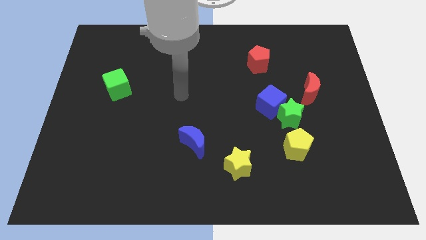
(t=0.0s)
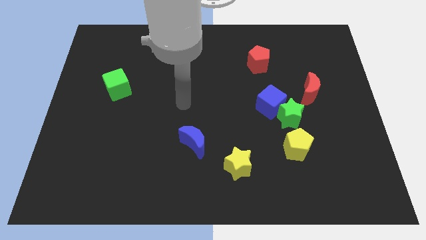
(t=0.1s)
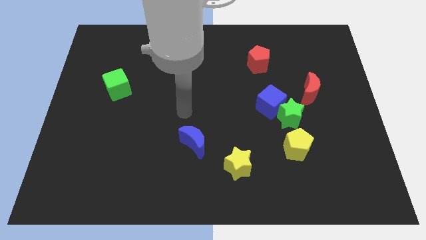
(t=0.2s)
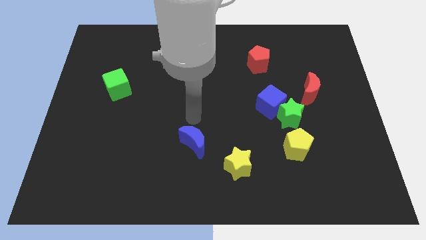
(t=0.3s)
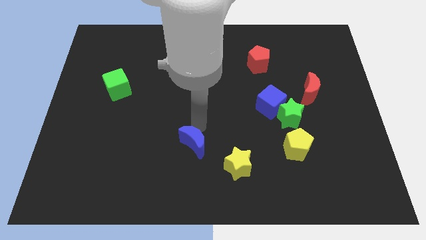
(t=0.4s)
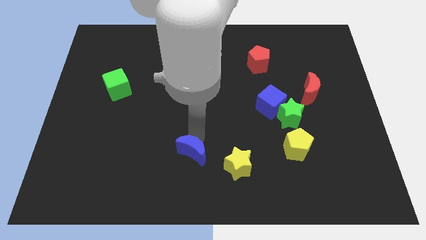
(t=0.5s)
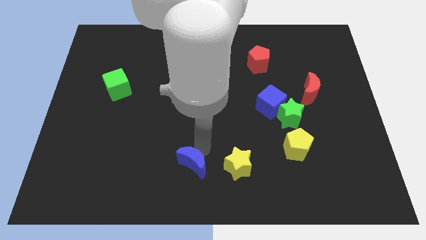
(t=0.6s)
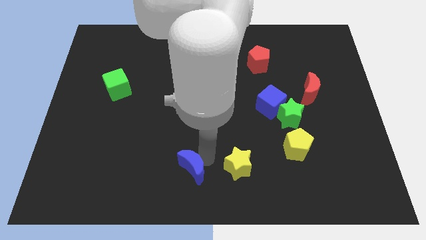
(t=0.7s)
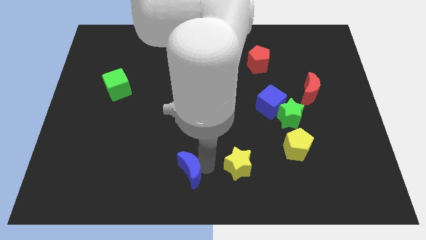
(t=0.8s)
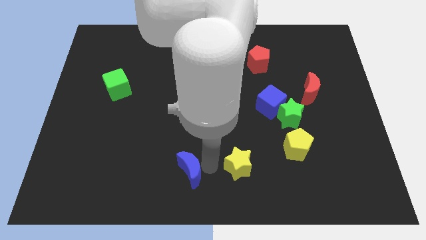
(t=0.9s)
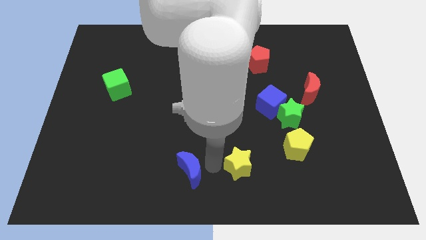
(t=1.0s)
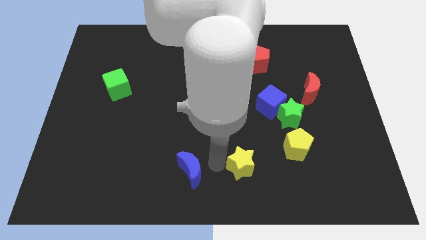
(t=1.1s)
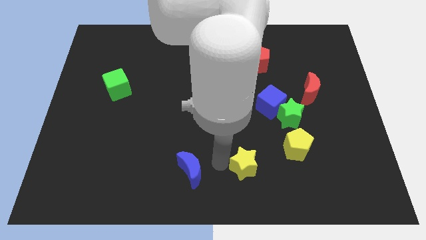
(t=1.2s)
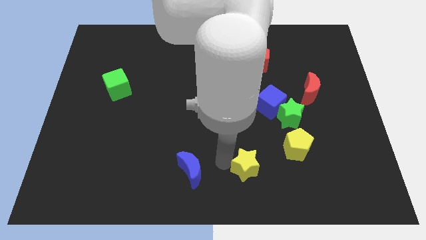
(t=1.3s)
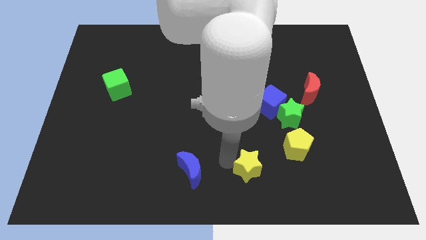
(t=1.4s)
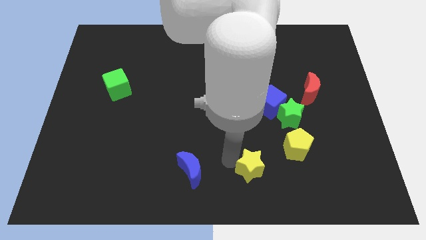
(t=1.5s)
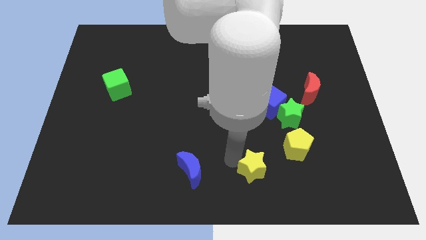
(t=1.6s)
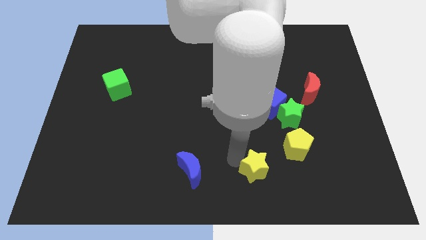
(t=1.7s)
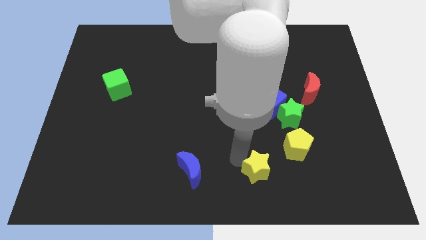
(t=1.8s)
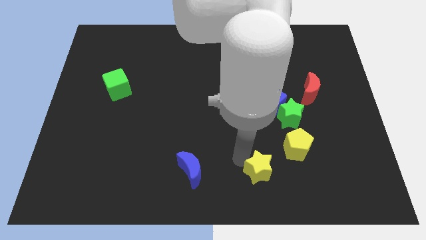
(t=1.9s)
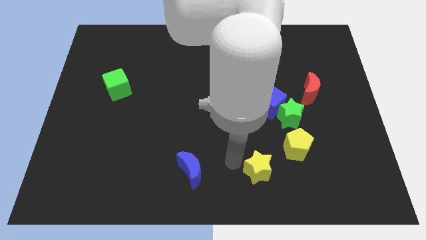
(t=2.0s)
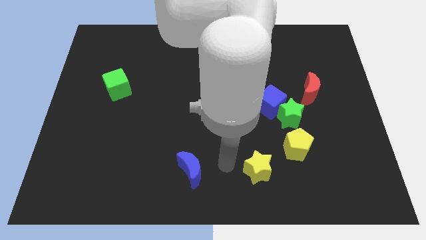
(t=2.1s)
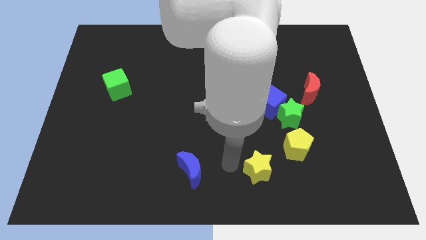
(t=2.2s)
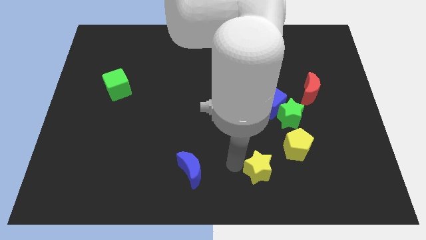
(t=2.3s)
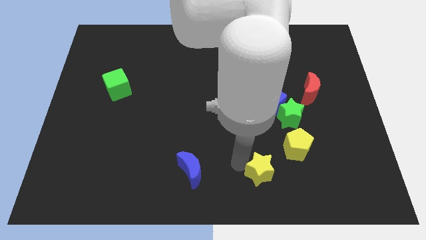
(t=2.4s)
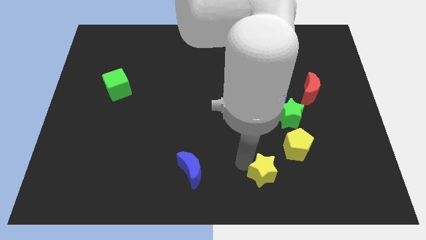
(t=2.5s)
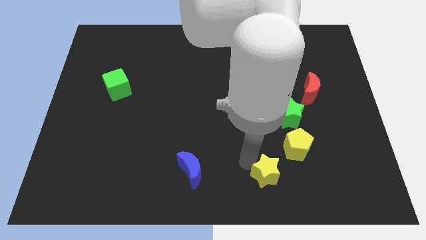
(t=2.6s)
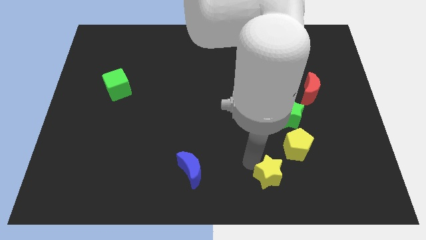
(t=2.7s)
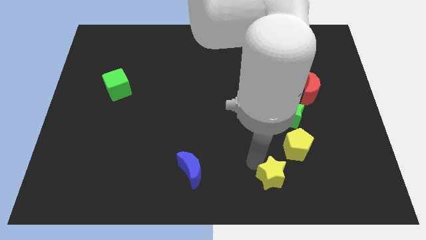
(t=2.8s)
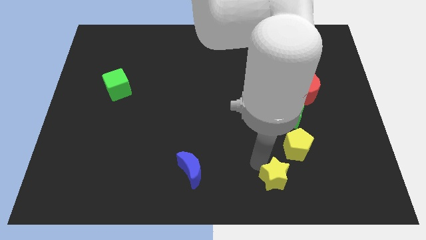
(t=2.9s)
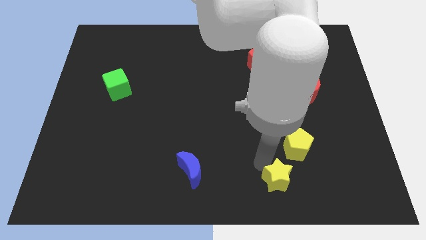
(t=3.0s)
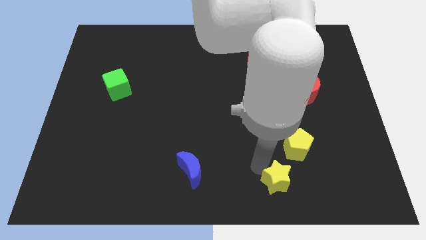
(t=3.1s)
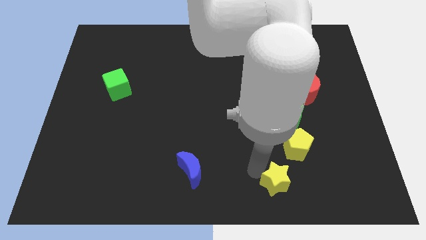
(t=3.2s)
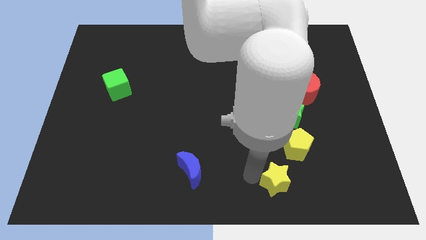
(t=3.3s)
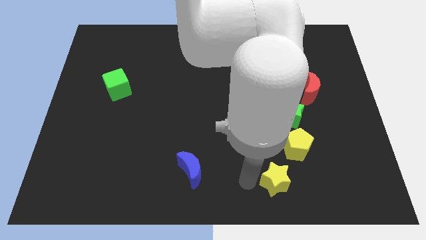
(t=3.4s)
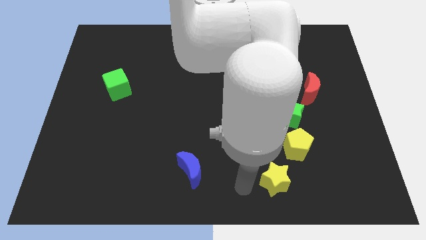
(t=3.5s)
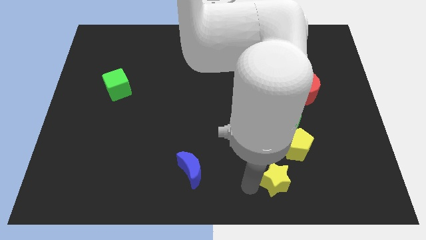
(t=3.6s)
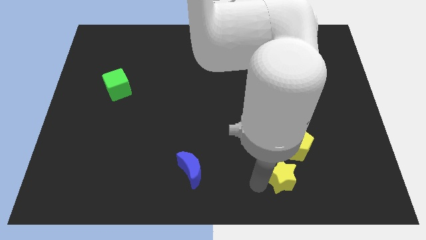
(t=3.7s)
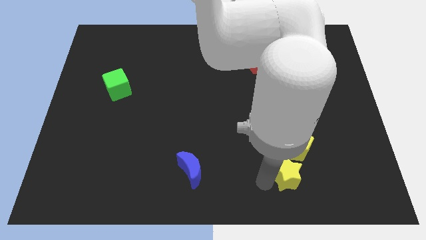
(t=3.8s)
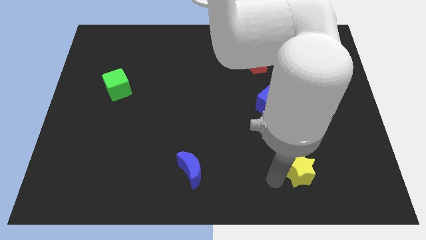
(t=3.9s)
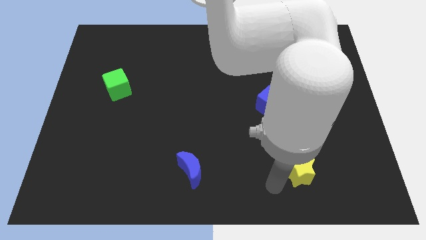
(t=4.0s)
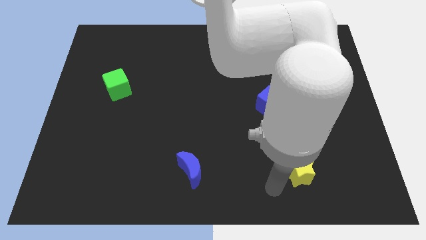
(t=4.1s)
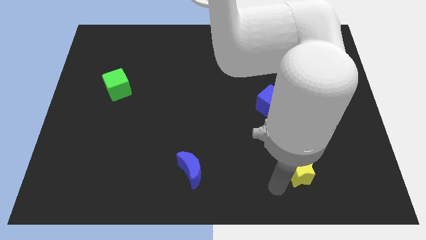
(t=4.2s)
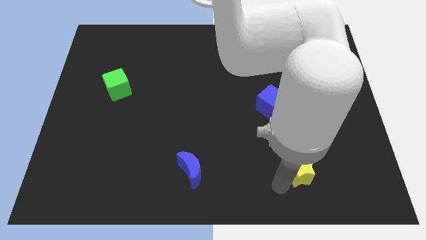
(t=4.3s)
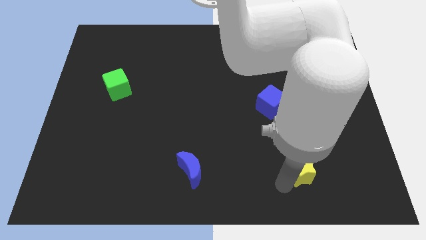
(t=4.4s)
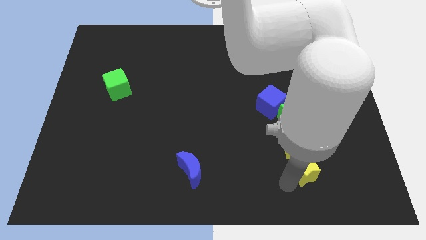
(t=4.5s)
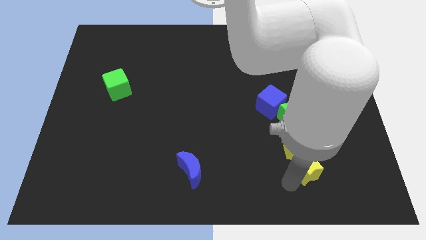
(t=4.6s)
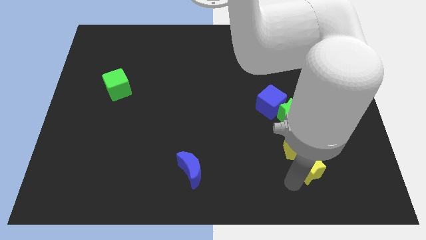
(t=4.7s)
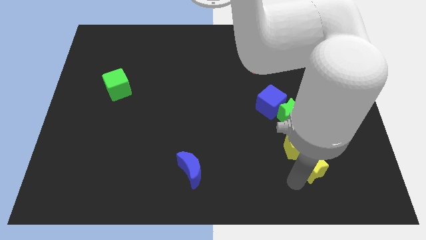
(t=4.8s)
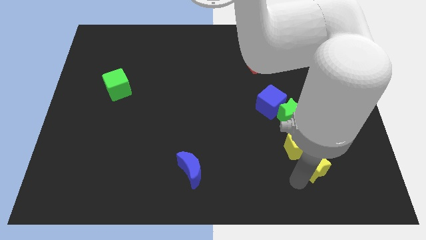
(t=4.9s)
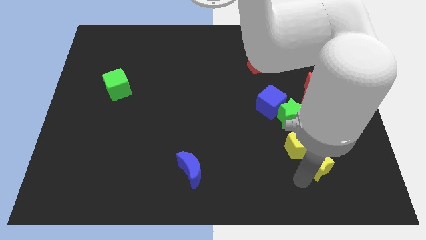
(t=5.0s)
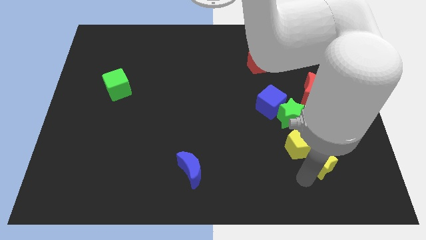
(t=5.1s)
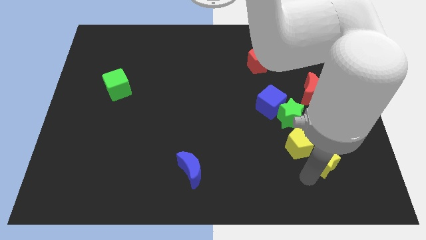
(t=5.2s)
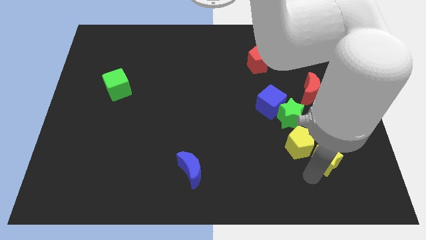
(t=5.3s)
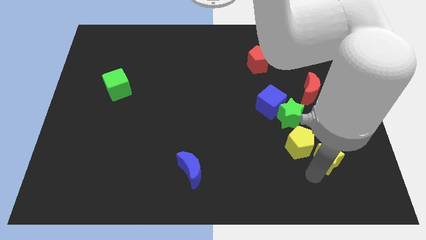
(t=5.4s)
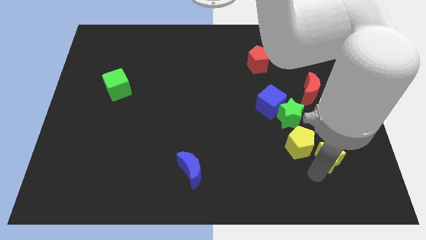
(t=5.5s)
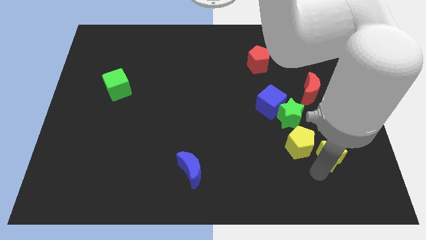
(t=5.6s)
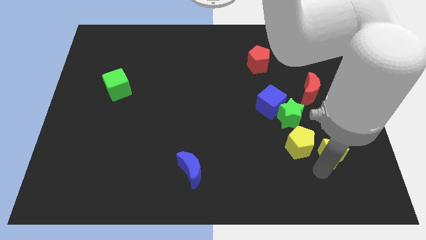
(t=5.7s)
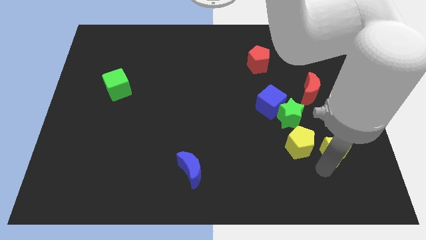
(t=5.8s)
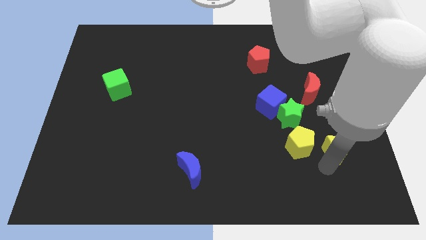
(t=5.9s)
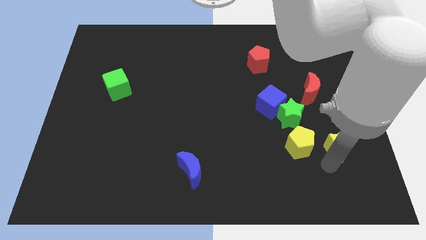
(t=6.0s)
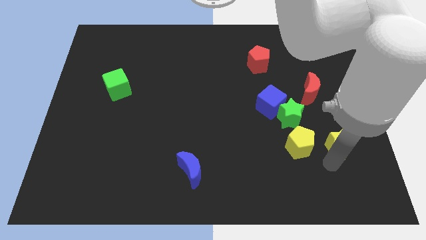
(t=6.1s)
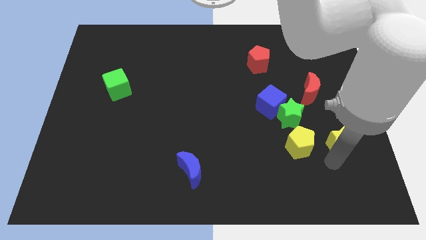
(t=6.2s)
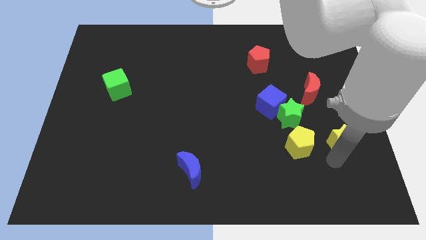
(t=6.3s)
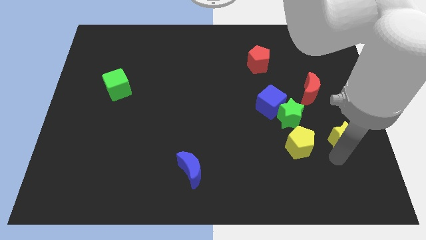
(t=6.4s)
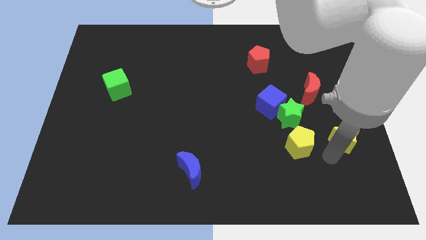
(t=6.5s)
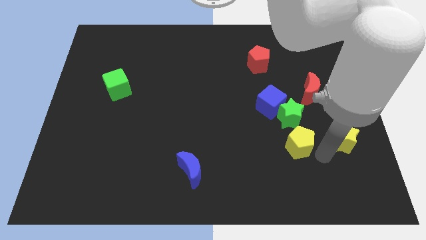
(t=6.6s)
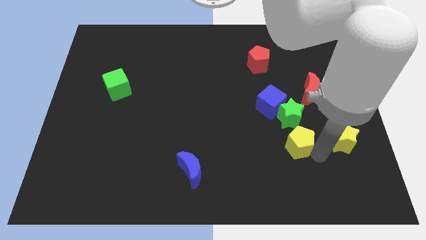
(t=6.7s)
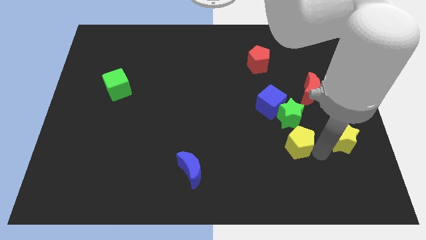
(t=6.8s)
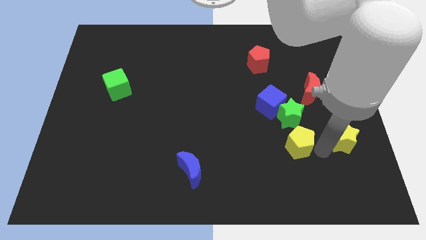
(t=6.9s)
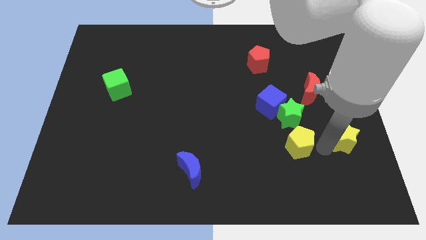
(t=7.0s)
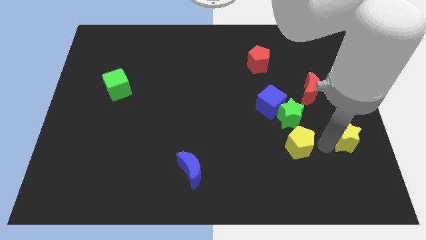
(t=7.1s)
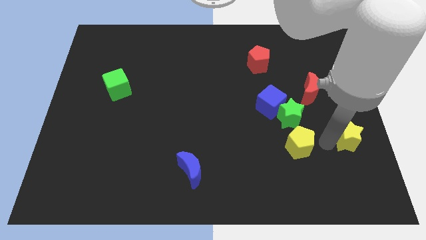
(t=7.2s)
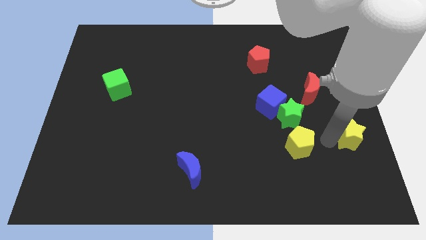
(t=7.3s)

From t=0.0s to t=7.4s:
move the yellow star to the right side
